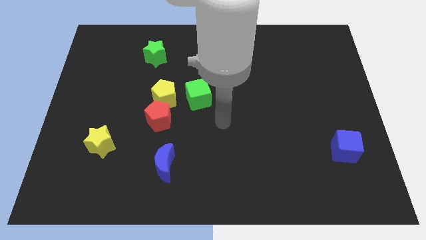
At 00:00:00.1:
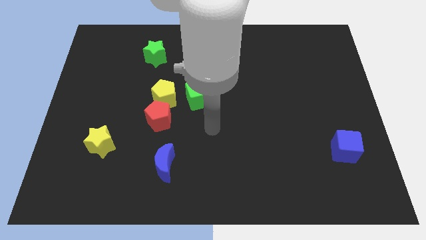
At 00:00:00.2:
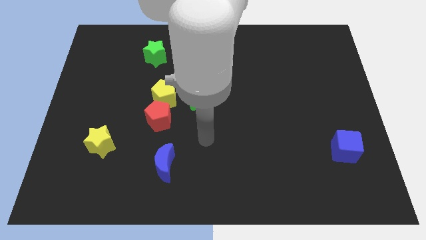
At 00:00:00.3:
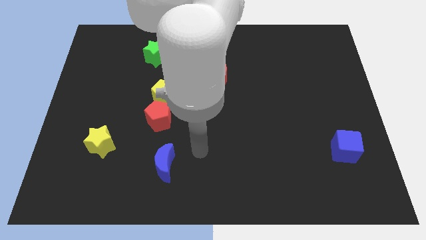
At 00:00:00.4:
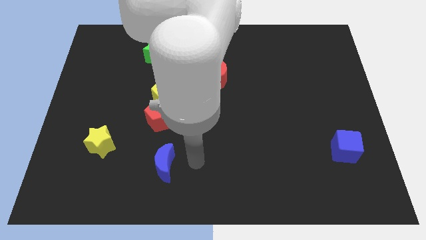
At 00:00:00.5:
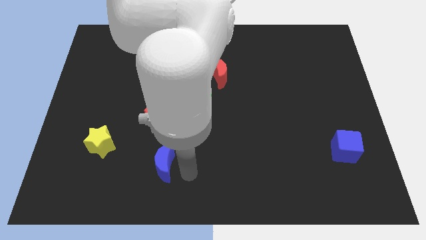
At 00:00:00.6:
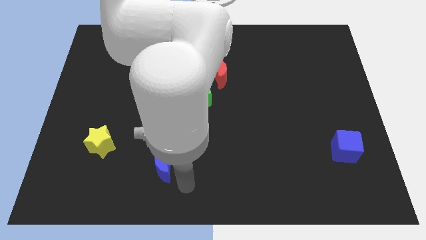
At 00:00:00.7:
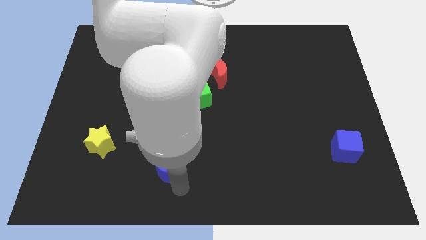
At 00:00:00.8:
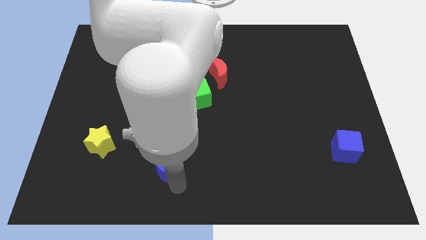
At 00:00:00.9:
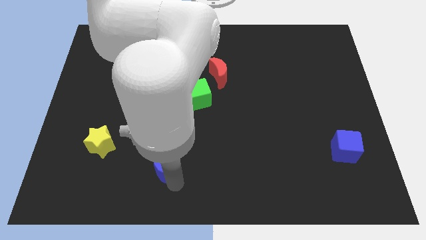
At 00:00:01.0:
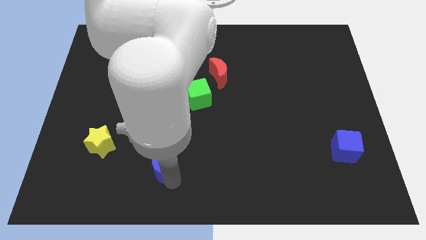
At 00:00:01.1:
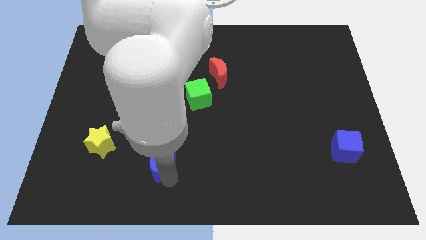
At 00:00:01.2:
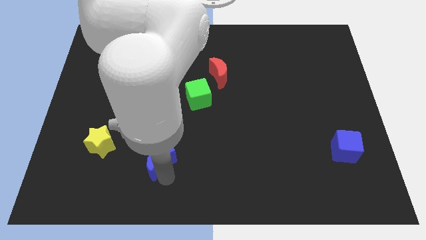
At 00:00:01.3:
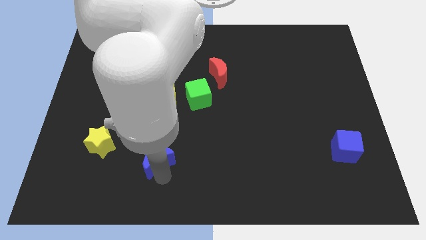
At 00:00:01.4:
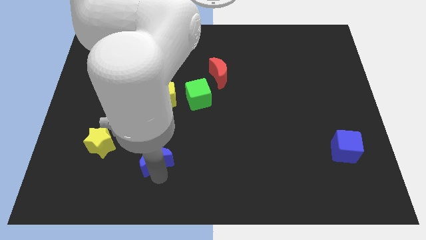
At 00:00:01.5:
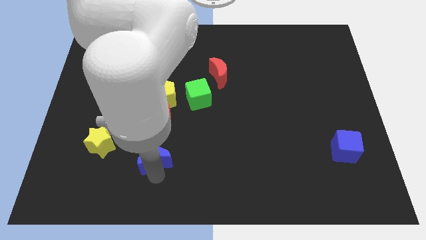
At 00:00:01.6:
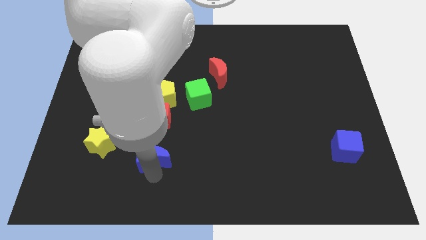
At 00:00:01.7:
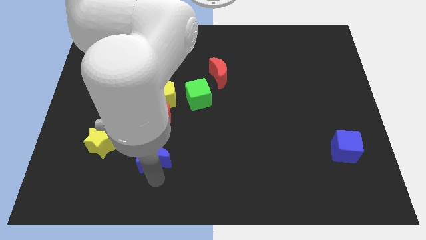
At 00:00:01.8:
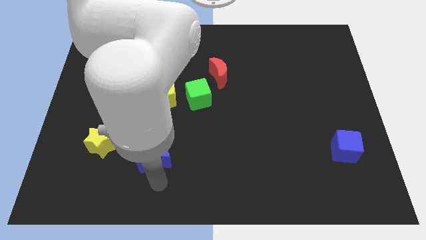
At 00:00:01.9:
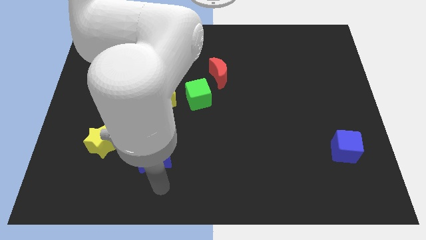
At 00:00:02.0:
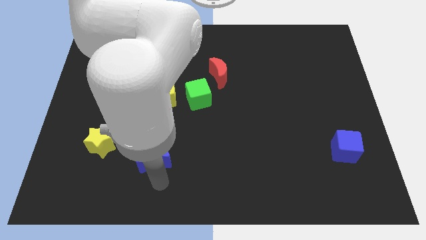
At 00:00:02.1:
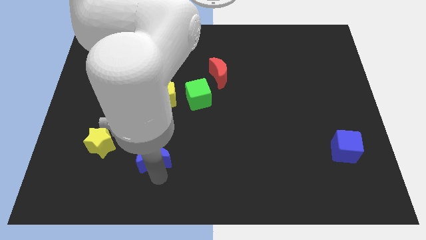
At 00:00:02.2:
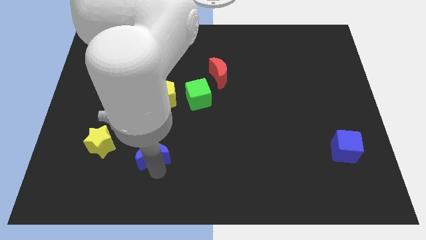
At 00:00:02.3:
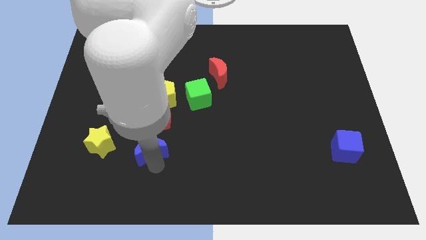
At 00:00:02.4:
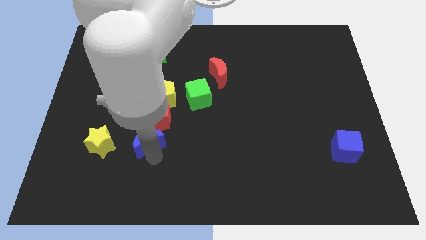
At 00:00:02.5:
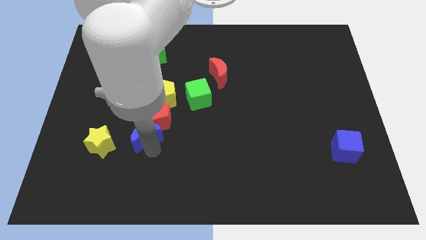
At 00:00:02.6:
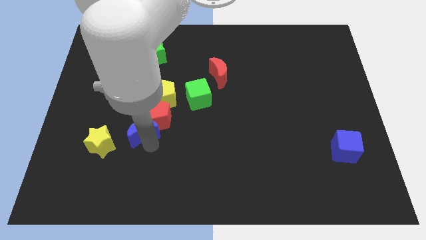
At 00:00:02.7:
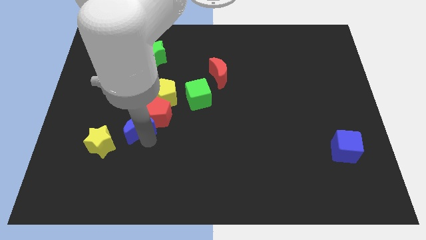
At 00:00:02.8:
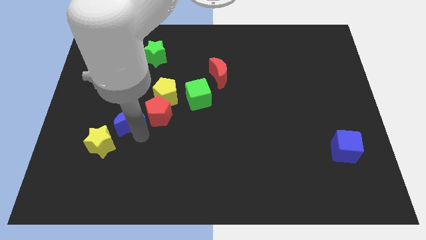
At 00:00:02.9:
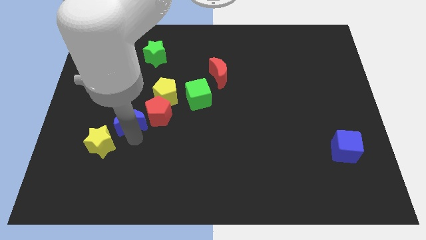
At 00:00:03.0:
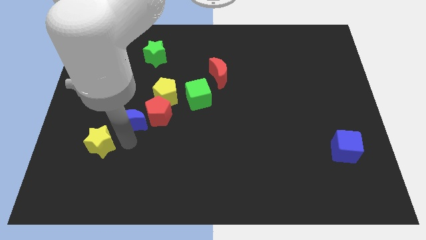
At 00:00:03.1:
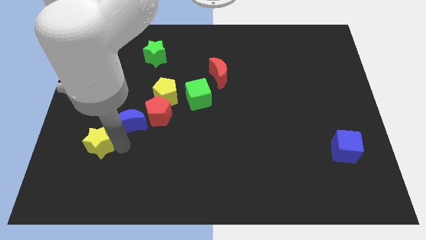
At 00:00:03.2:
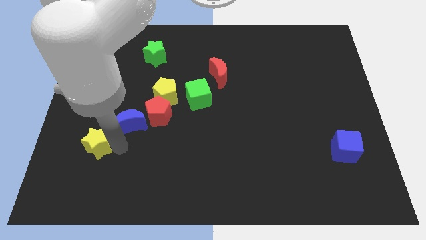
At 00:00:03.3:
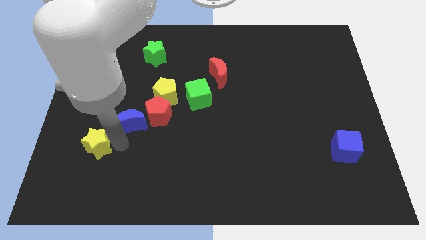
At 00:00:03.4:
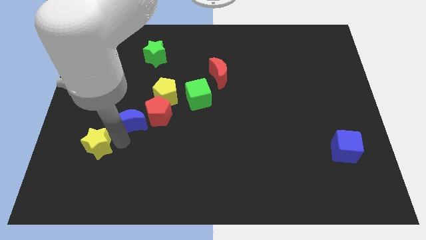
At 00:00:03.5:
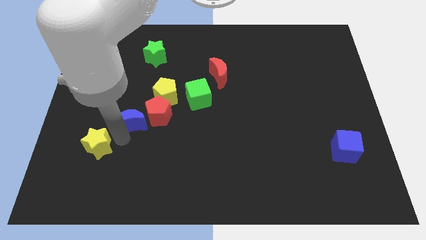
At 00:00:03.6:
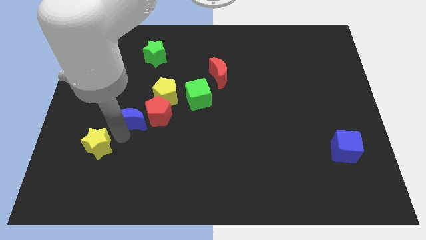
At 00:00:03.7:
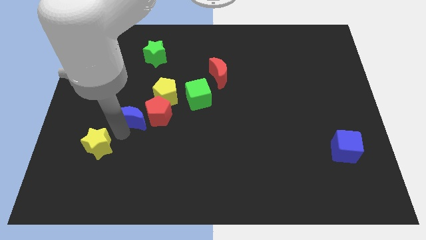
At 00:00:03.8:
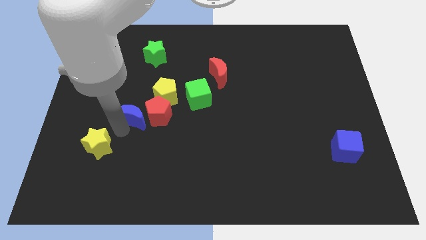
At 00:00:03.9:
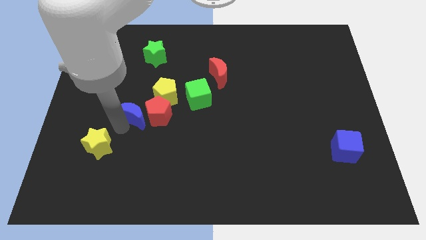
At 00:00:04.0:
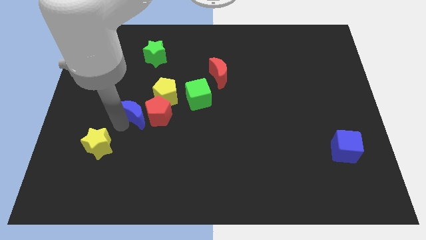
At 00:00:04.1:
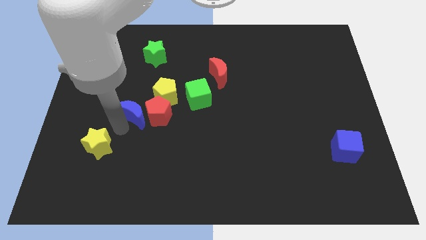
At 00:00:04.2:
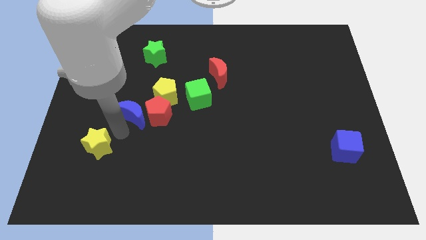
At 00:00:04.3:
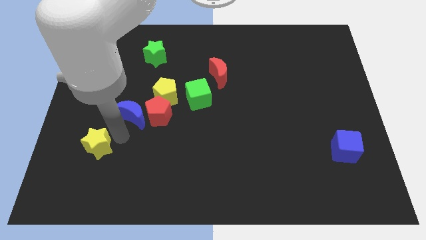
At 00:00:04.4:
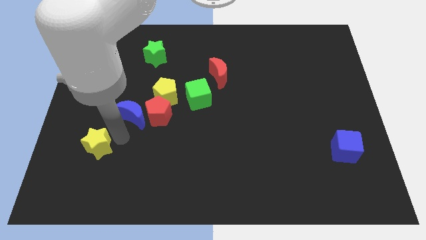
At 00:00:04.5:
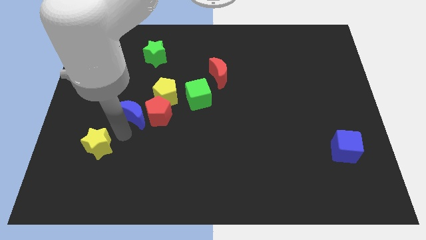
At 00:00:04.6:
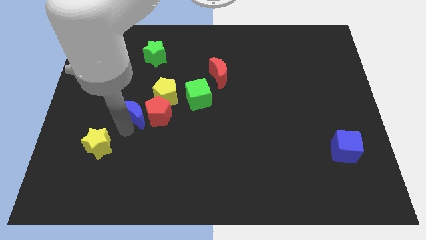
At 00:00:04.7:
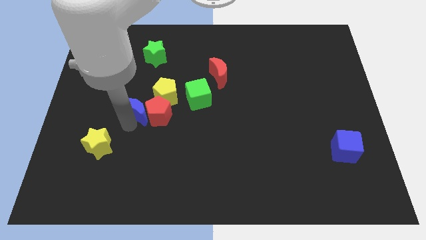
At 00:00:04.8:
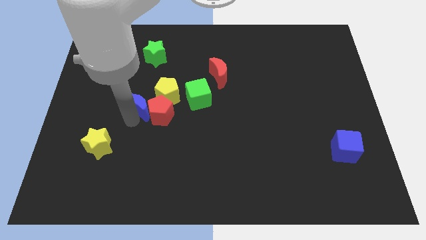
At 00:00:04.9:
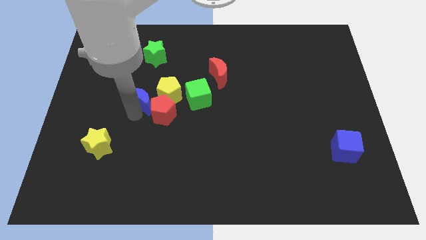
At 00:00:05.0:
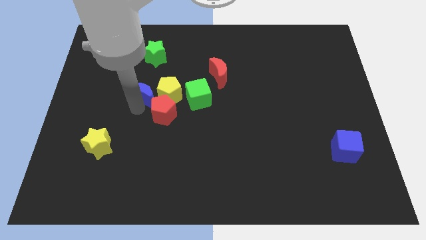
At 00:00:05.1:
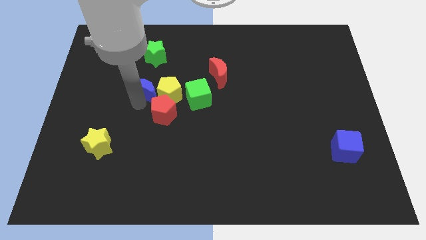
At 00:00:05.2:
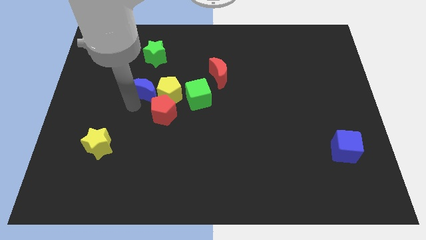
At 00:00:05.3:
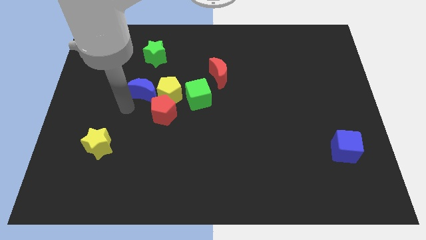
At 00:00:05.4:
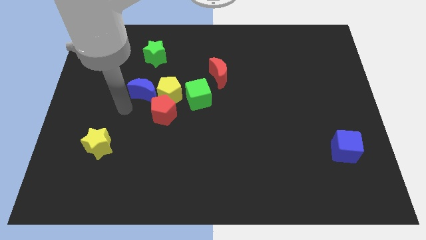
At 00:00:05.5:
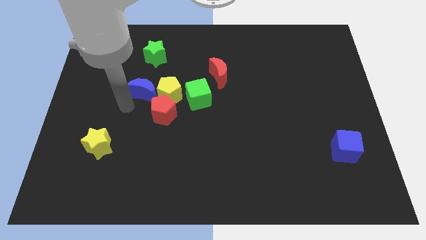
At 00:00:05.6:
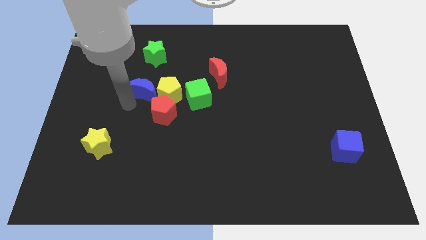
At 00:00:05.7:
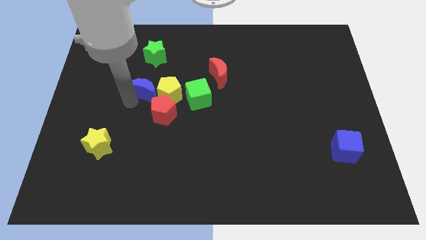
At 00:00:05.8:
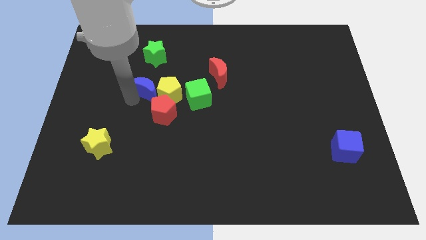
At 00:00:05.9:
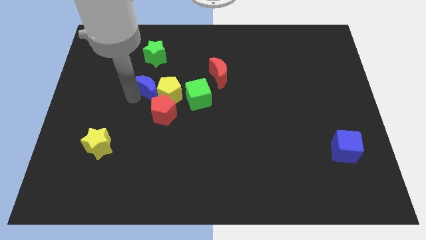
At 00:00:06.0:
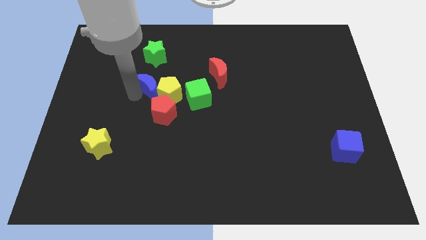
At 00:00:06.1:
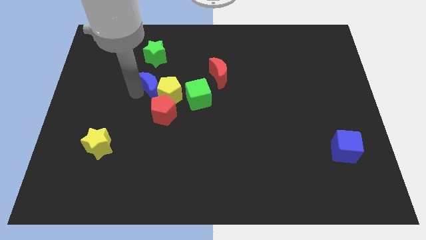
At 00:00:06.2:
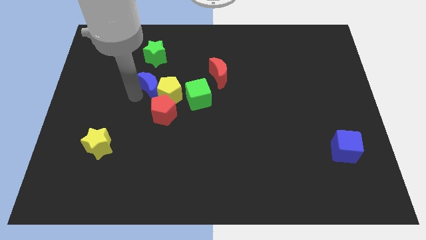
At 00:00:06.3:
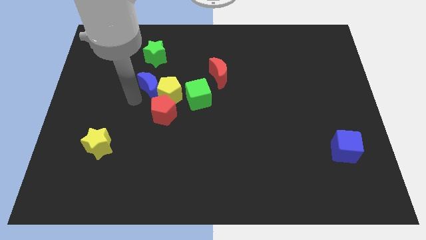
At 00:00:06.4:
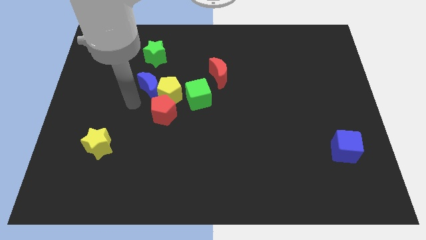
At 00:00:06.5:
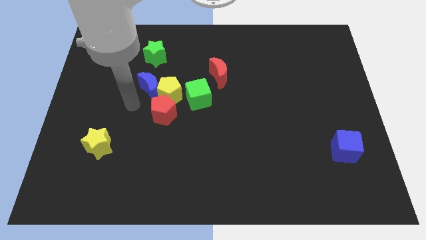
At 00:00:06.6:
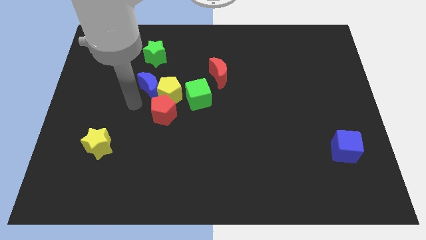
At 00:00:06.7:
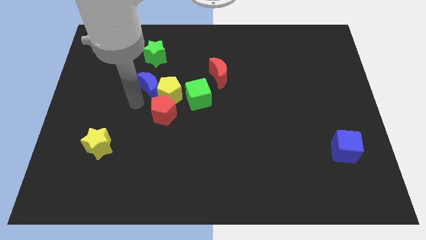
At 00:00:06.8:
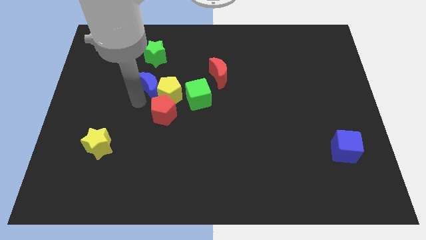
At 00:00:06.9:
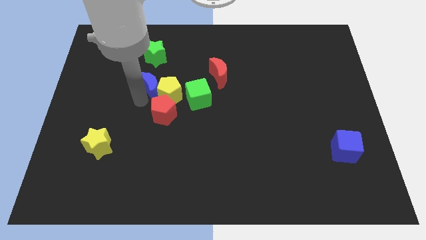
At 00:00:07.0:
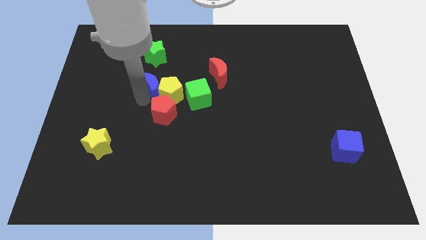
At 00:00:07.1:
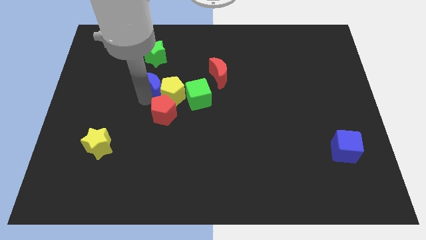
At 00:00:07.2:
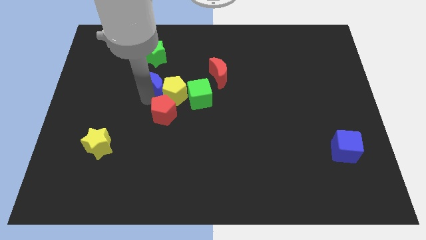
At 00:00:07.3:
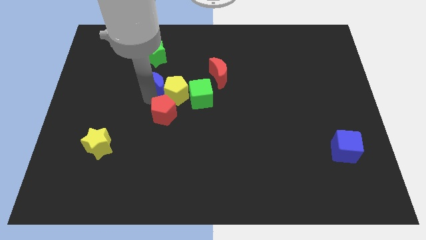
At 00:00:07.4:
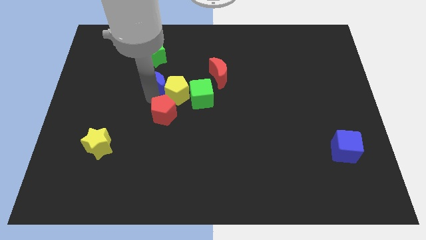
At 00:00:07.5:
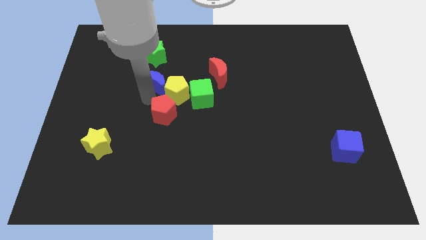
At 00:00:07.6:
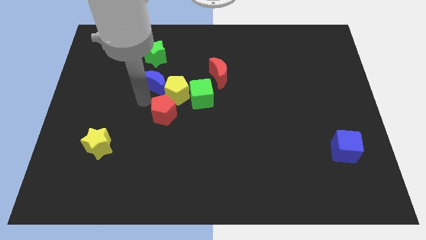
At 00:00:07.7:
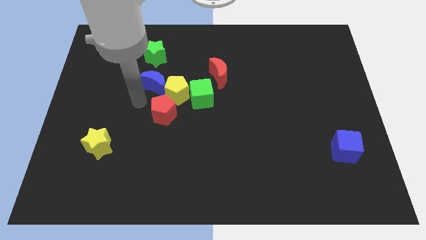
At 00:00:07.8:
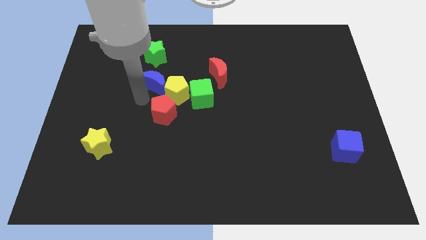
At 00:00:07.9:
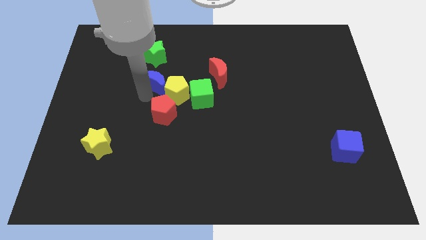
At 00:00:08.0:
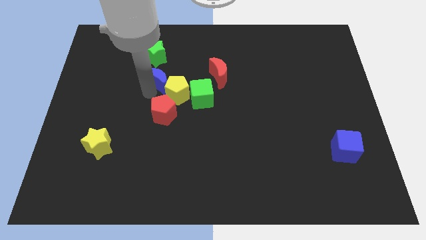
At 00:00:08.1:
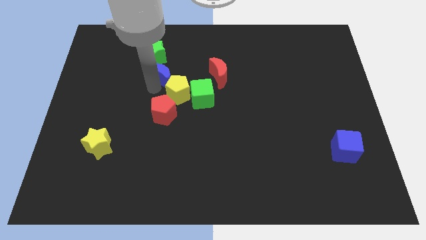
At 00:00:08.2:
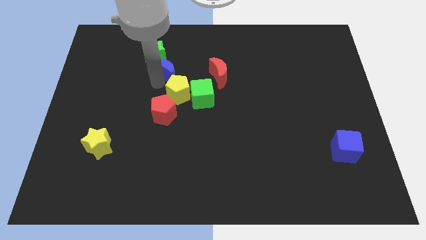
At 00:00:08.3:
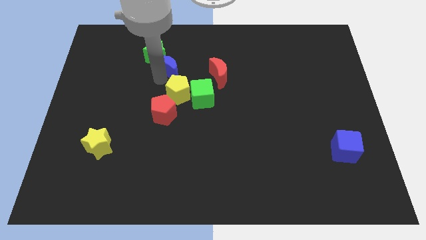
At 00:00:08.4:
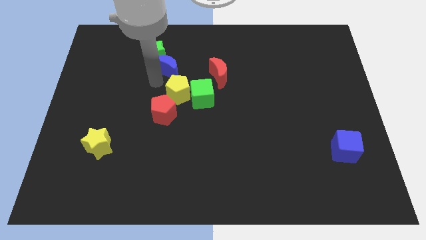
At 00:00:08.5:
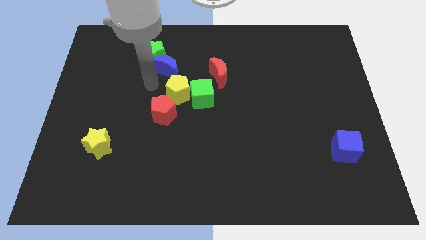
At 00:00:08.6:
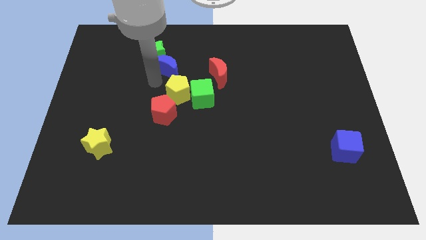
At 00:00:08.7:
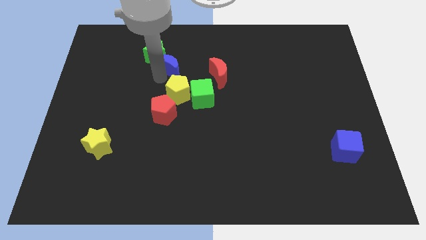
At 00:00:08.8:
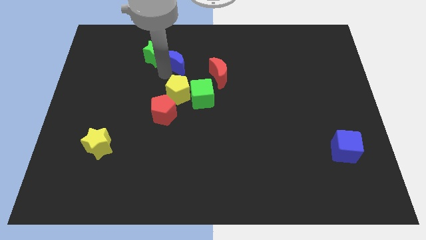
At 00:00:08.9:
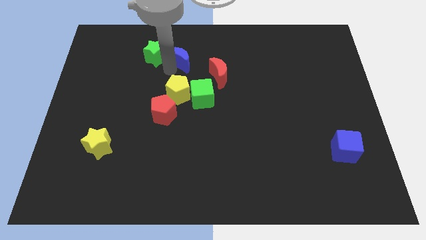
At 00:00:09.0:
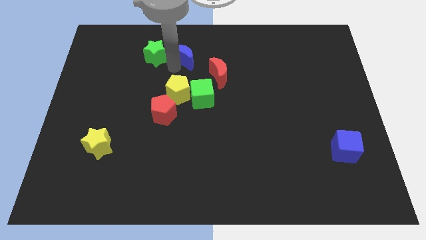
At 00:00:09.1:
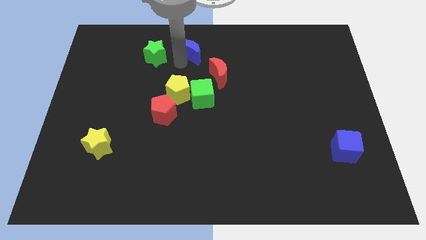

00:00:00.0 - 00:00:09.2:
push the blue moon to the towards your base
